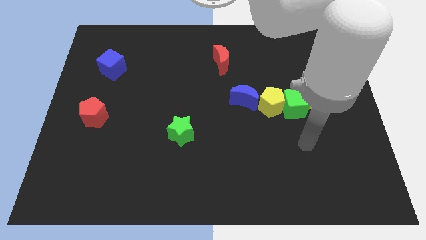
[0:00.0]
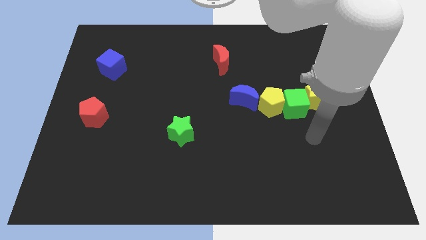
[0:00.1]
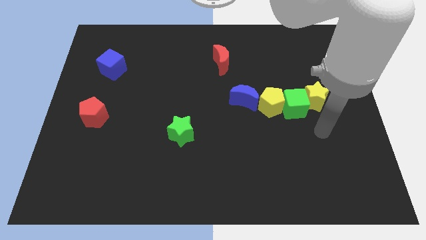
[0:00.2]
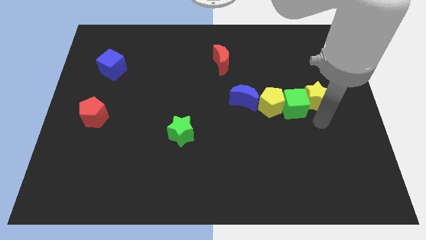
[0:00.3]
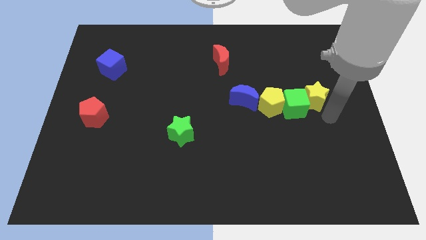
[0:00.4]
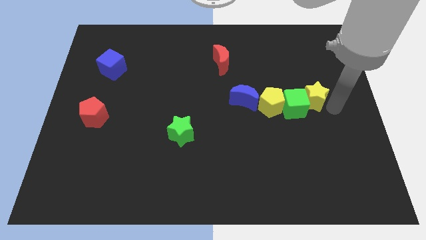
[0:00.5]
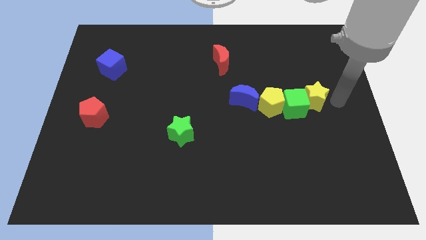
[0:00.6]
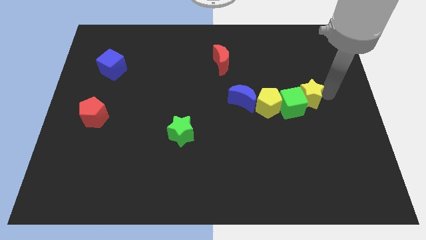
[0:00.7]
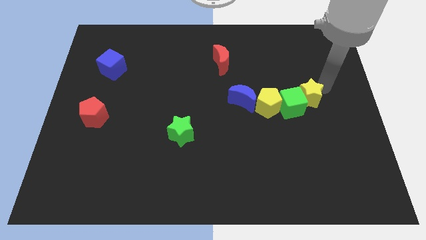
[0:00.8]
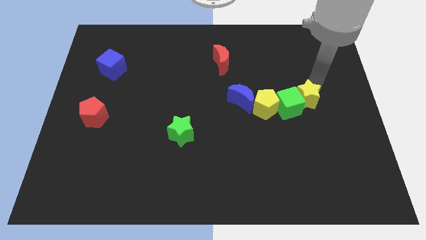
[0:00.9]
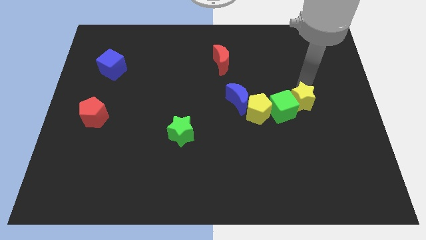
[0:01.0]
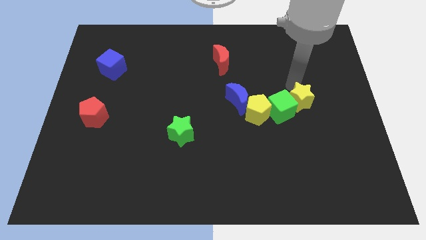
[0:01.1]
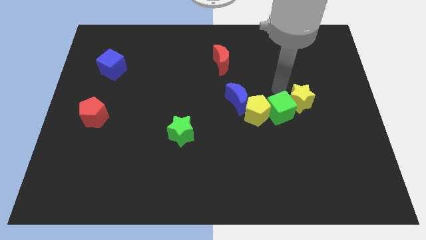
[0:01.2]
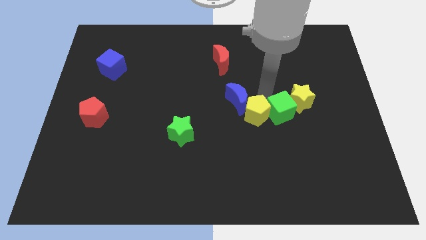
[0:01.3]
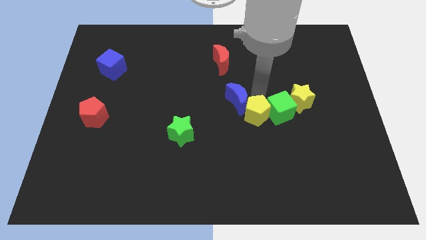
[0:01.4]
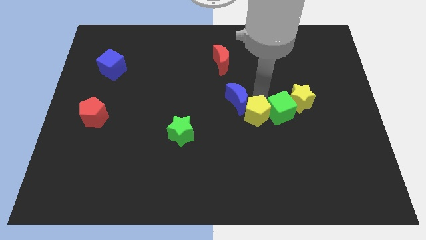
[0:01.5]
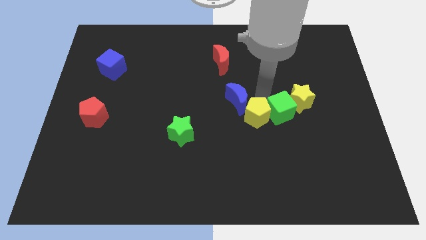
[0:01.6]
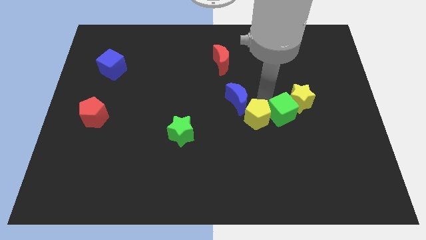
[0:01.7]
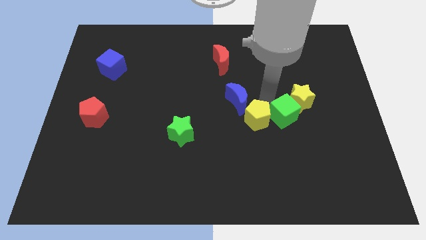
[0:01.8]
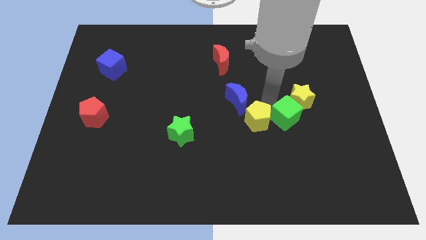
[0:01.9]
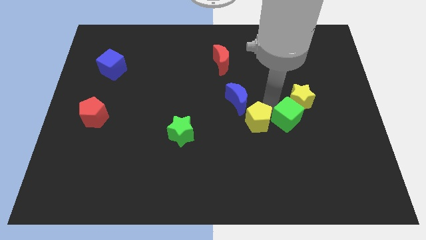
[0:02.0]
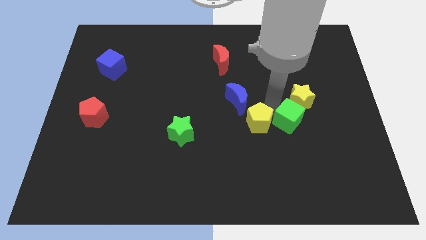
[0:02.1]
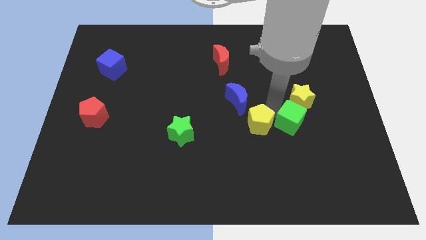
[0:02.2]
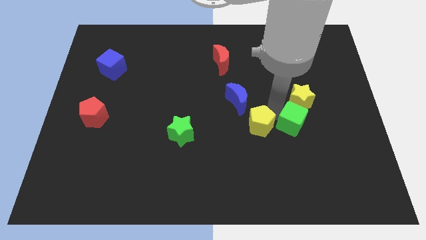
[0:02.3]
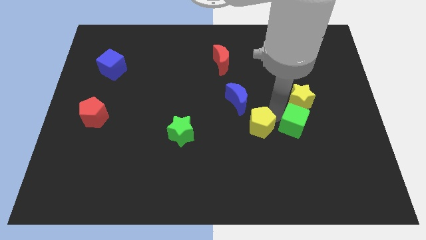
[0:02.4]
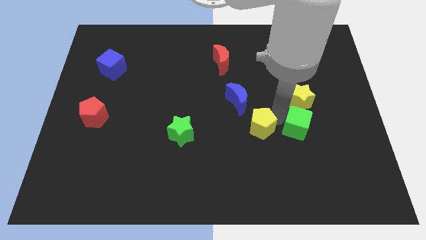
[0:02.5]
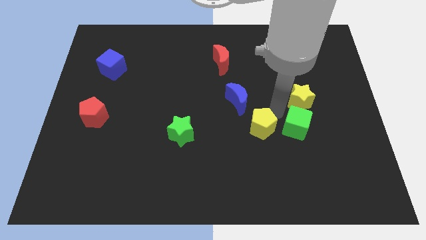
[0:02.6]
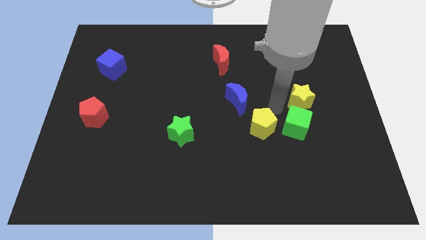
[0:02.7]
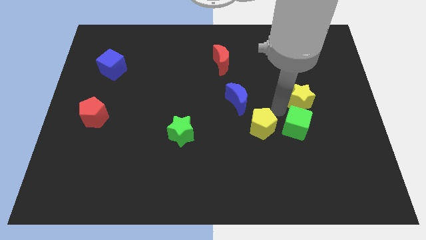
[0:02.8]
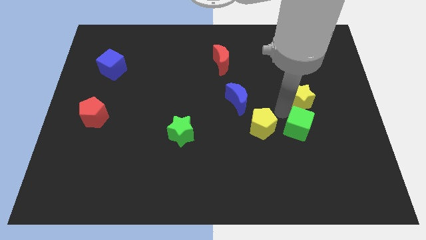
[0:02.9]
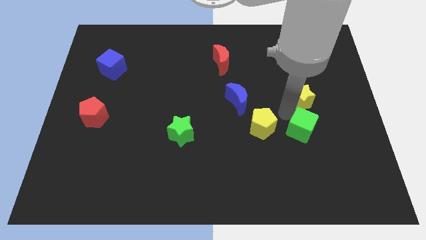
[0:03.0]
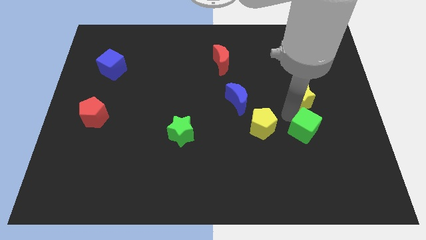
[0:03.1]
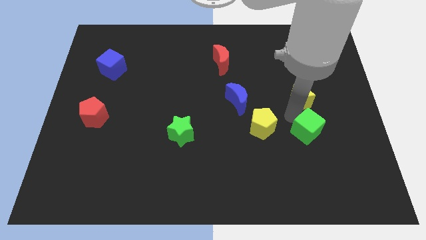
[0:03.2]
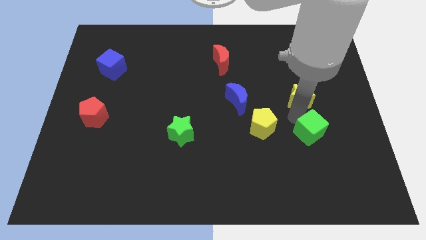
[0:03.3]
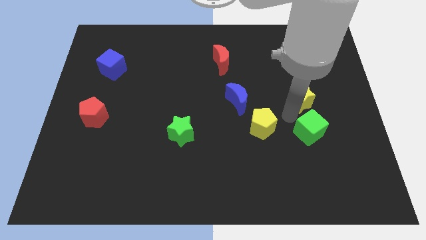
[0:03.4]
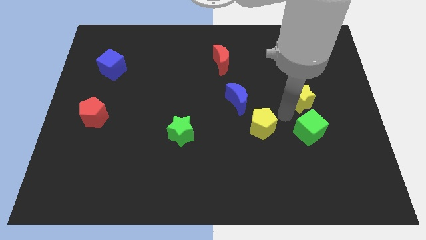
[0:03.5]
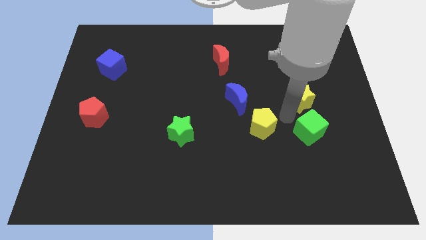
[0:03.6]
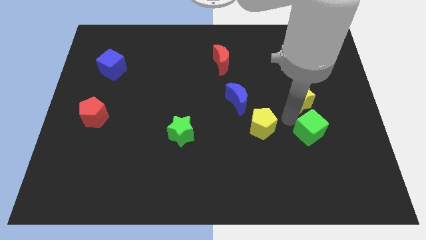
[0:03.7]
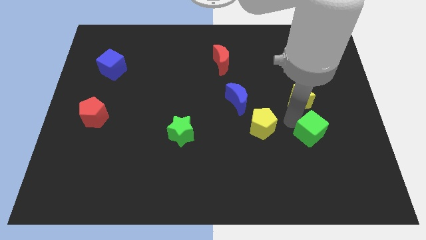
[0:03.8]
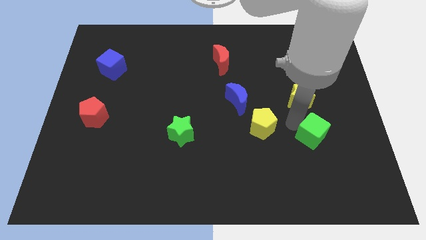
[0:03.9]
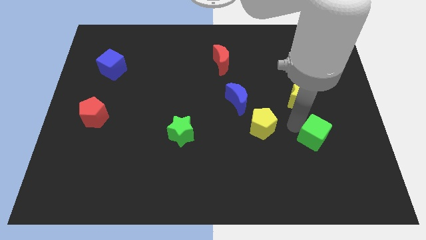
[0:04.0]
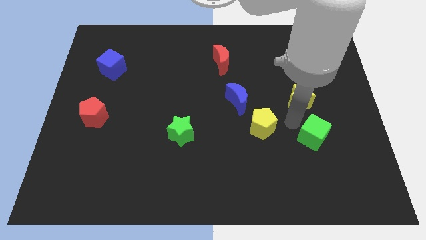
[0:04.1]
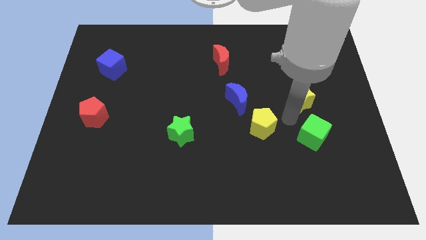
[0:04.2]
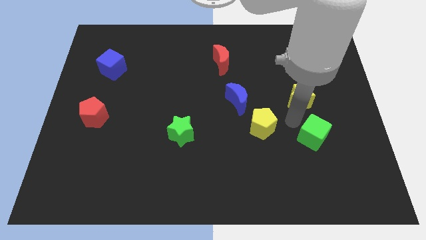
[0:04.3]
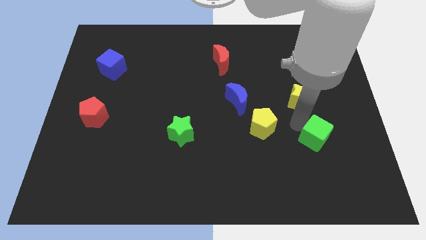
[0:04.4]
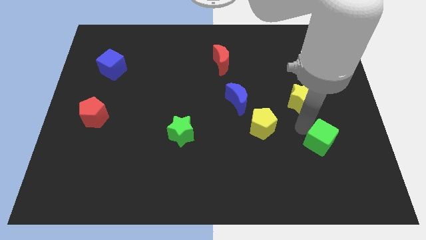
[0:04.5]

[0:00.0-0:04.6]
pull the green cube apart from the yellow pentagon and yellow star

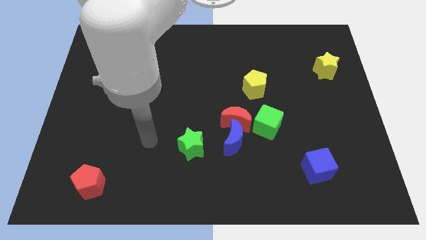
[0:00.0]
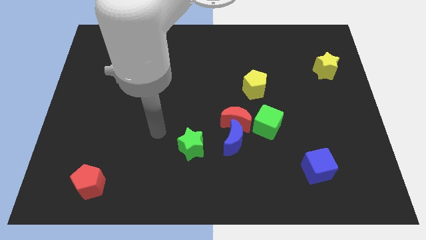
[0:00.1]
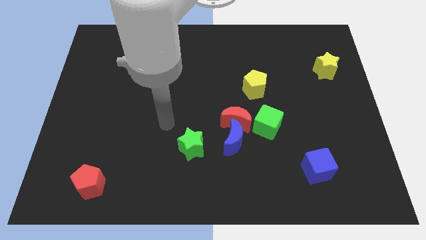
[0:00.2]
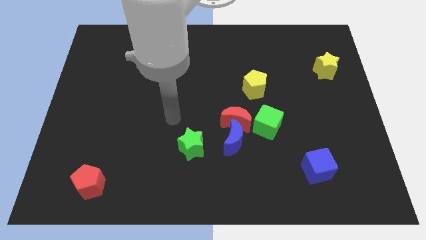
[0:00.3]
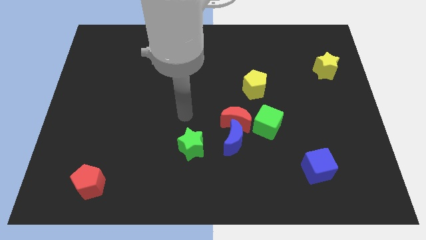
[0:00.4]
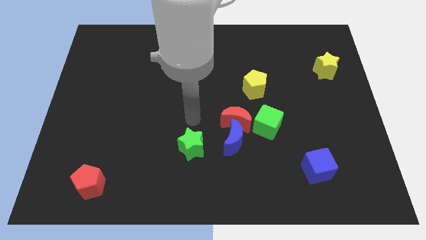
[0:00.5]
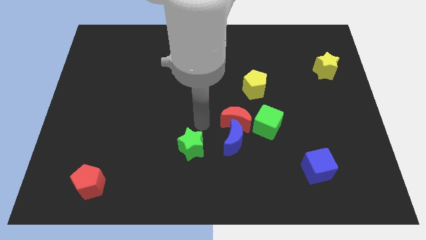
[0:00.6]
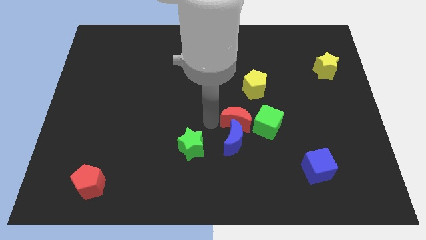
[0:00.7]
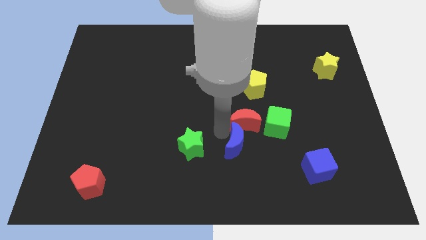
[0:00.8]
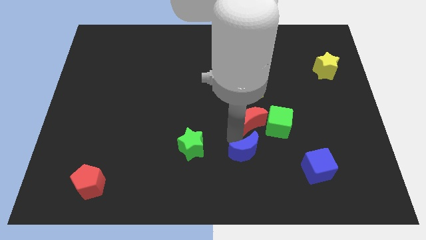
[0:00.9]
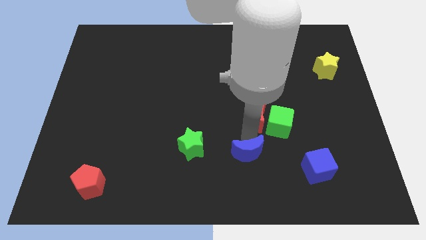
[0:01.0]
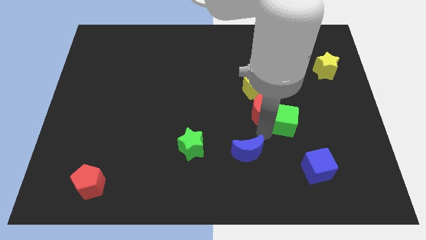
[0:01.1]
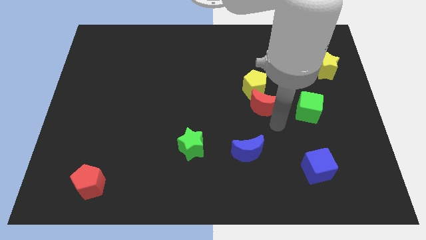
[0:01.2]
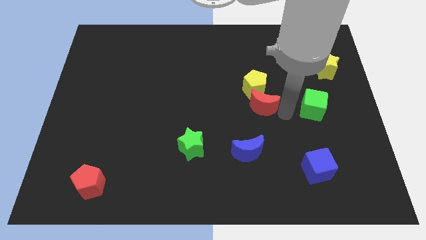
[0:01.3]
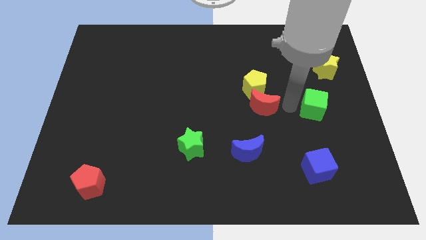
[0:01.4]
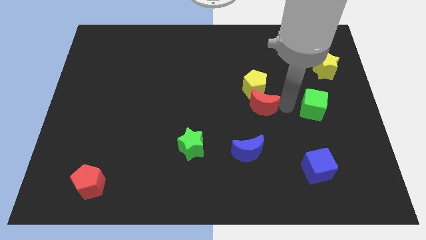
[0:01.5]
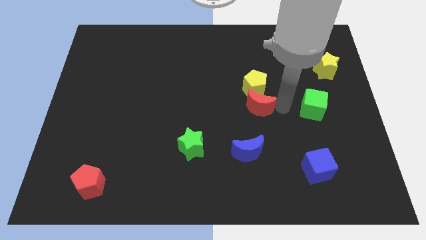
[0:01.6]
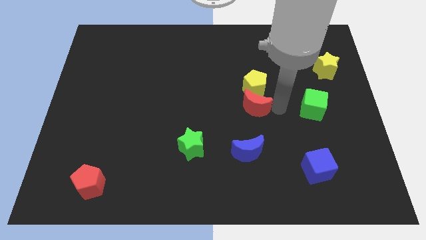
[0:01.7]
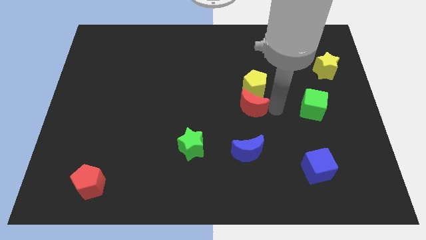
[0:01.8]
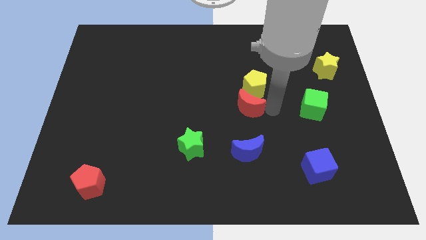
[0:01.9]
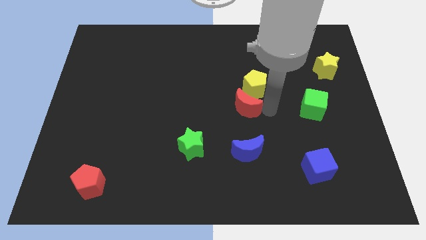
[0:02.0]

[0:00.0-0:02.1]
move the red moon away from the blue moon and green cube

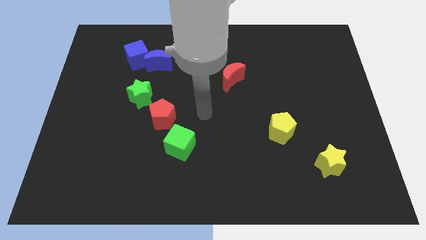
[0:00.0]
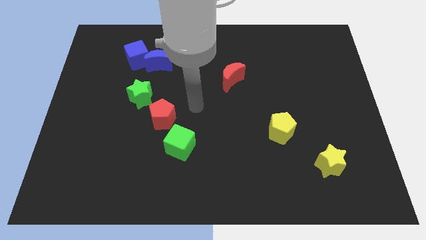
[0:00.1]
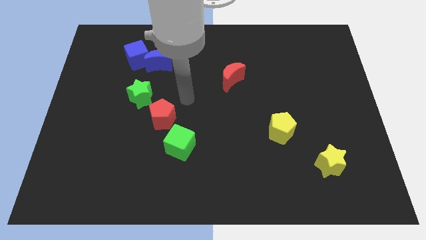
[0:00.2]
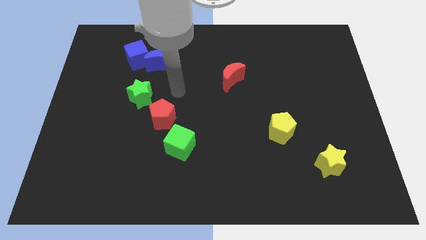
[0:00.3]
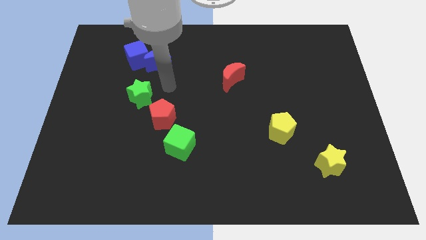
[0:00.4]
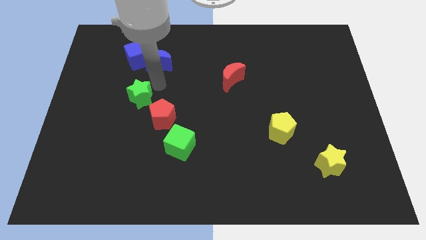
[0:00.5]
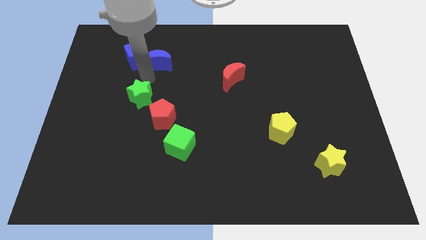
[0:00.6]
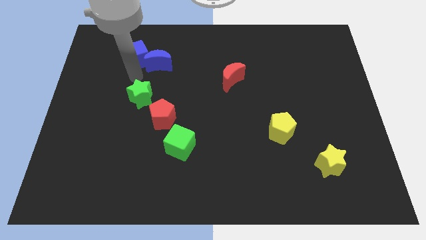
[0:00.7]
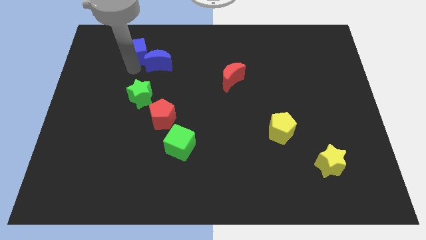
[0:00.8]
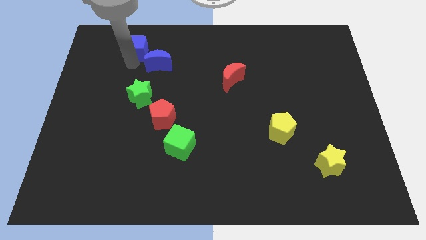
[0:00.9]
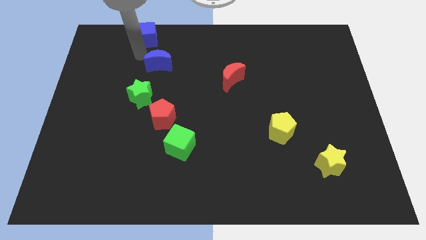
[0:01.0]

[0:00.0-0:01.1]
pull the blue moon apart from the blue cube

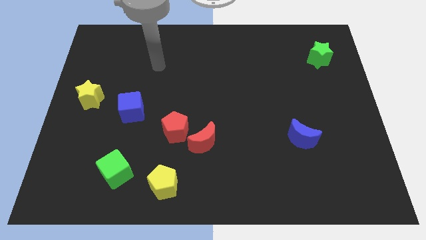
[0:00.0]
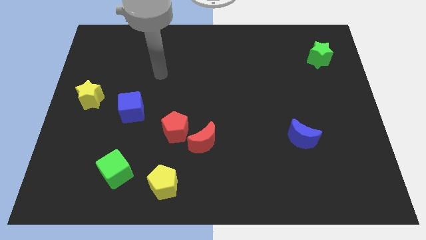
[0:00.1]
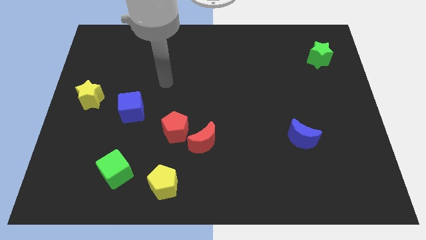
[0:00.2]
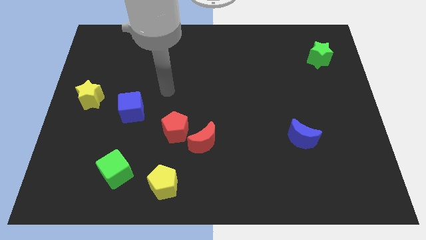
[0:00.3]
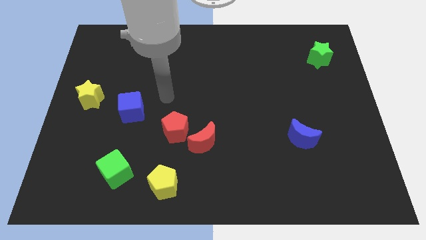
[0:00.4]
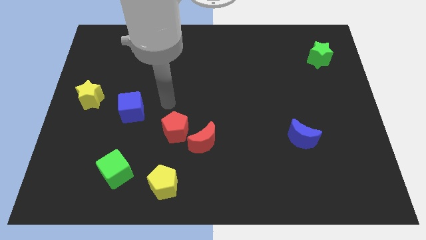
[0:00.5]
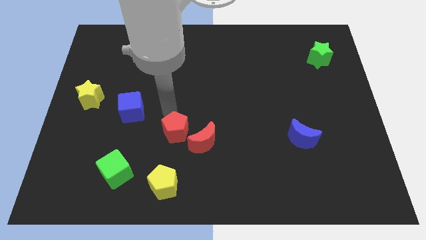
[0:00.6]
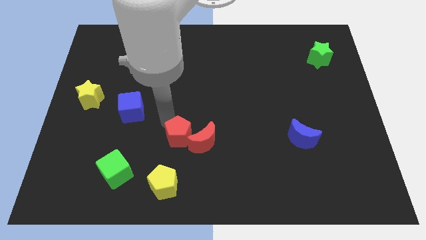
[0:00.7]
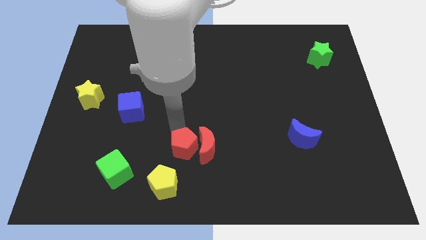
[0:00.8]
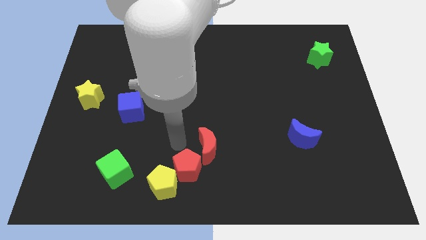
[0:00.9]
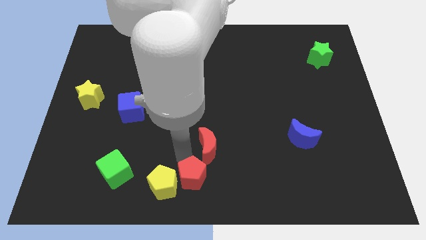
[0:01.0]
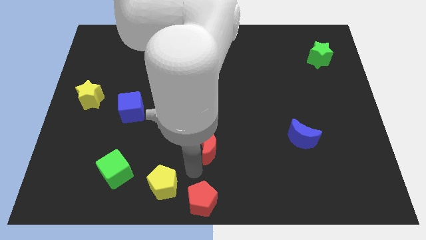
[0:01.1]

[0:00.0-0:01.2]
separate the red moon from the red pentagon

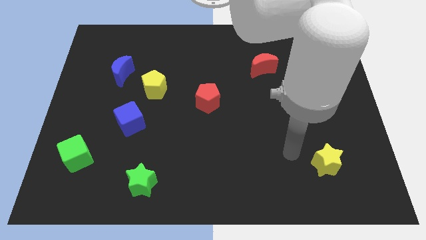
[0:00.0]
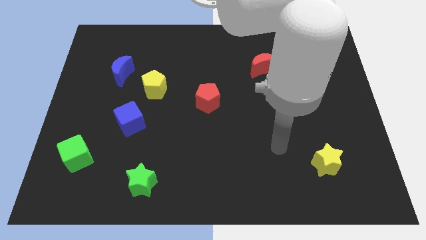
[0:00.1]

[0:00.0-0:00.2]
separate the blue moon from the yellow pentagon

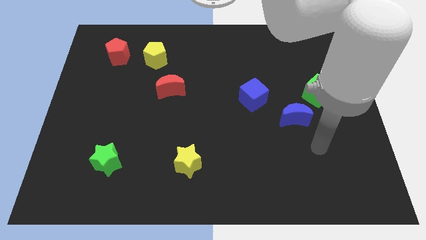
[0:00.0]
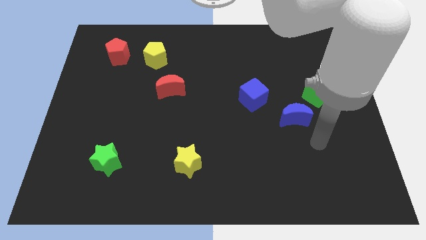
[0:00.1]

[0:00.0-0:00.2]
move the blue moon away from the green cube
